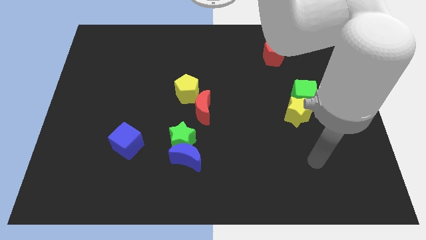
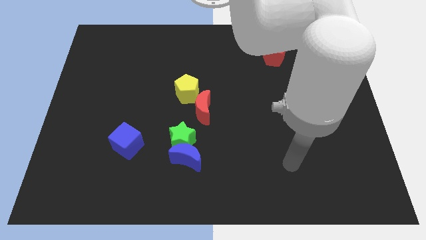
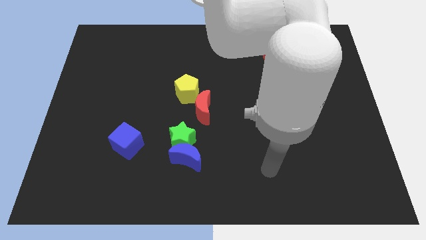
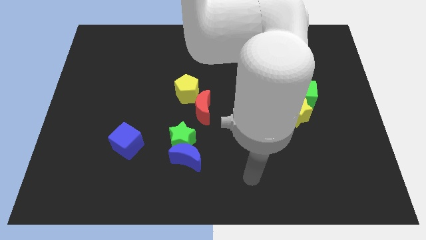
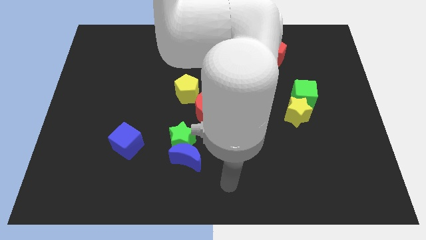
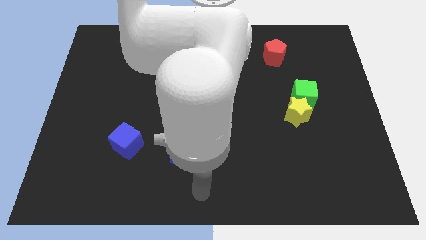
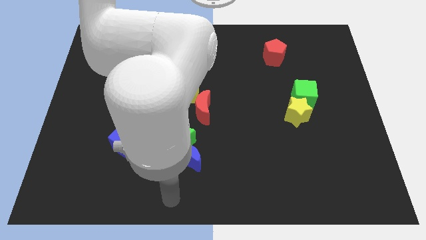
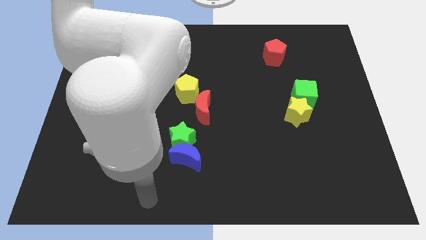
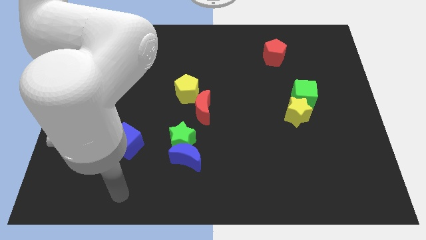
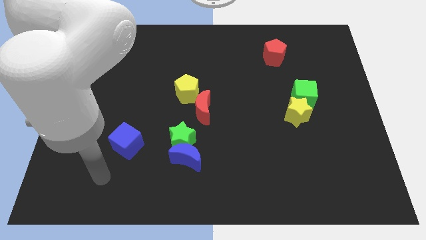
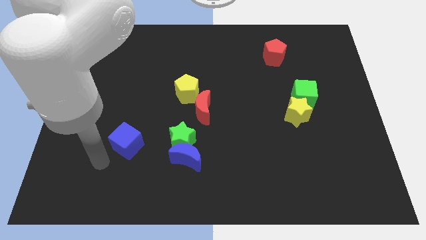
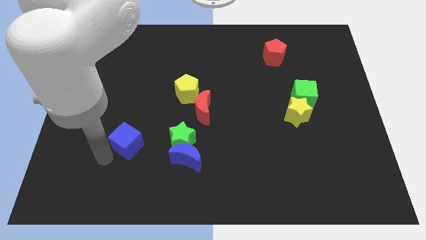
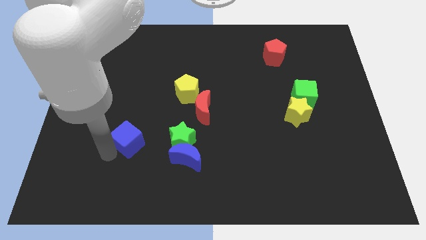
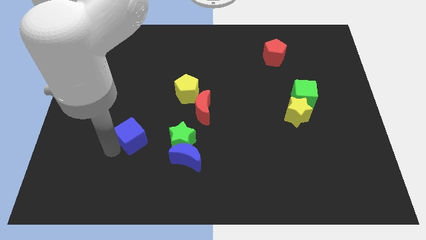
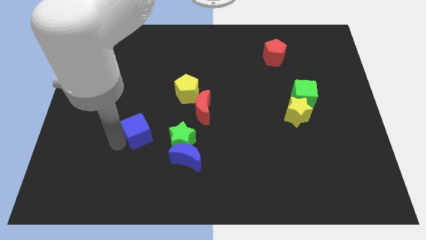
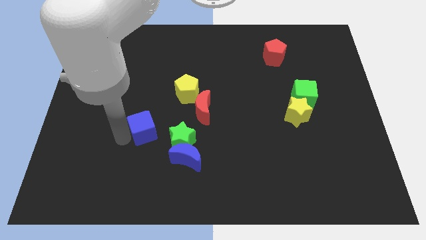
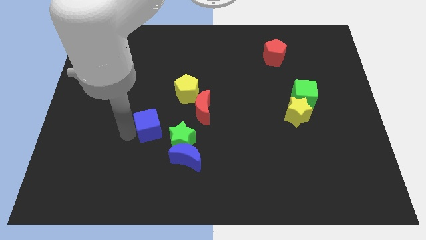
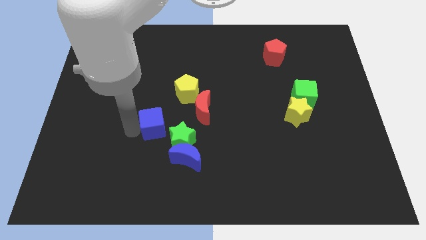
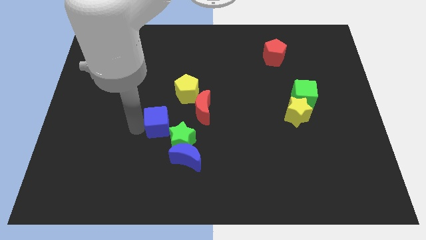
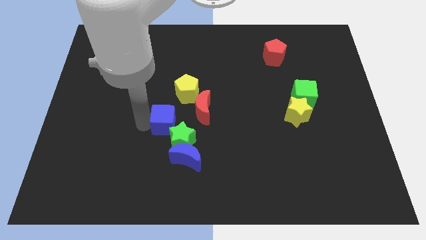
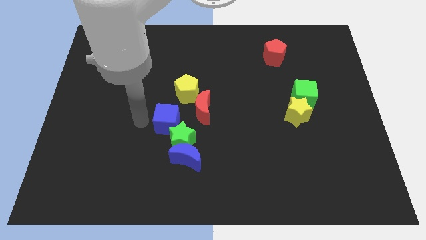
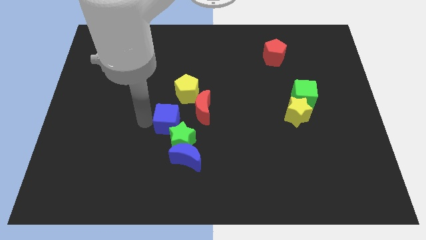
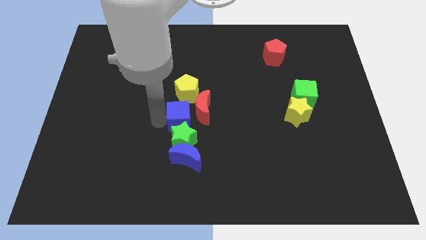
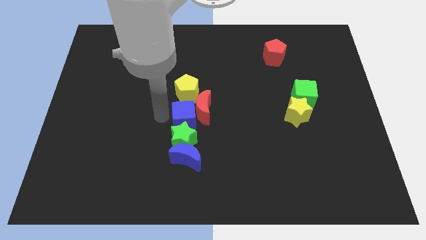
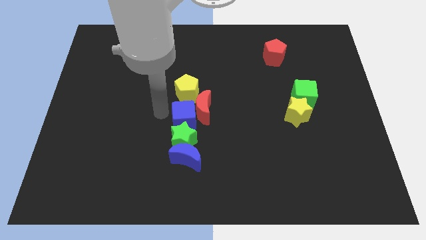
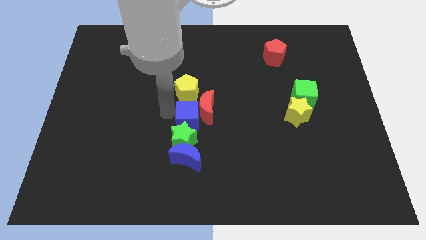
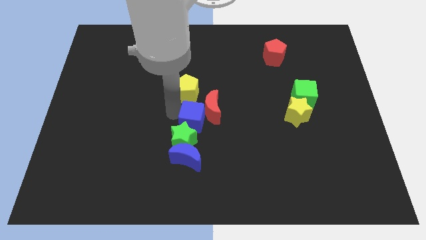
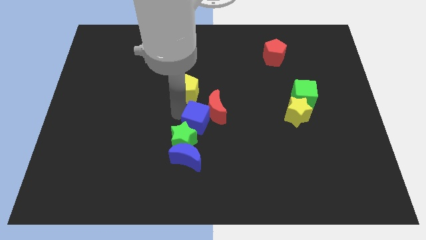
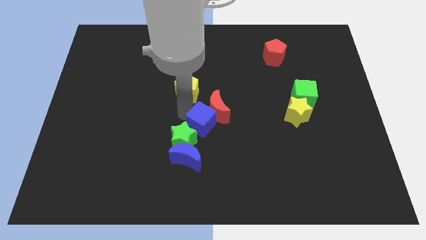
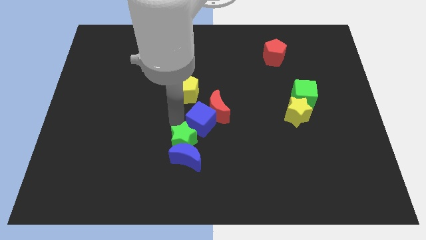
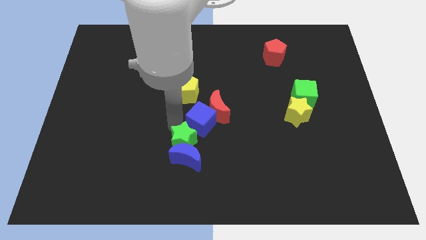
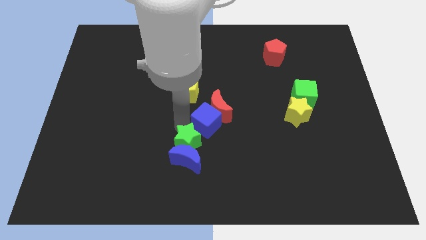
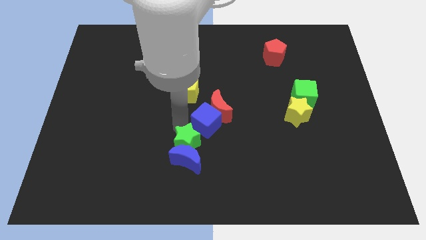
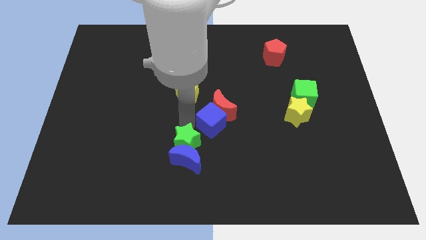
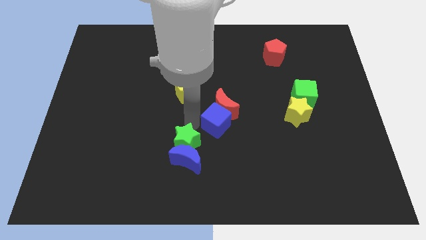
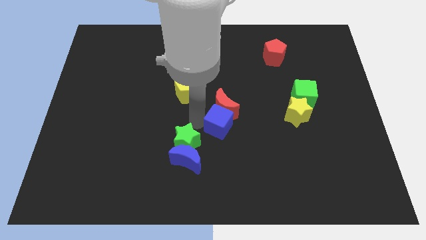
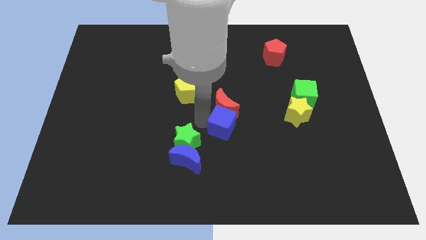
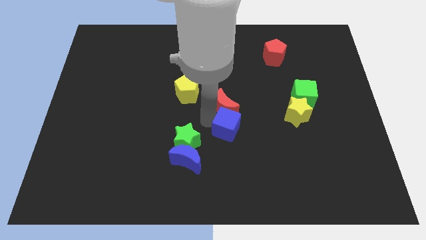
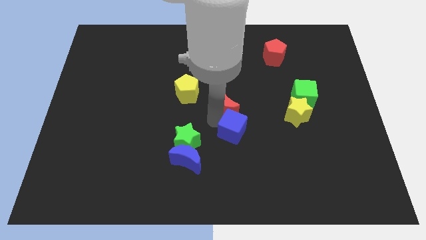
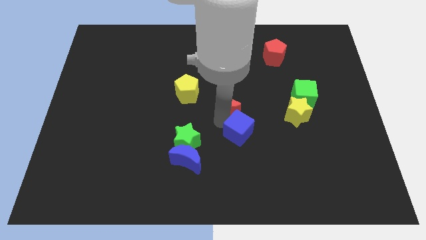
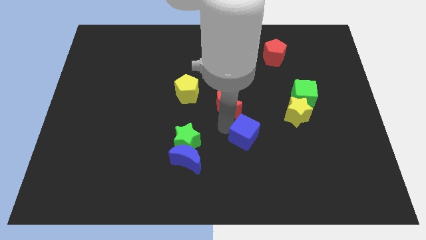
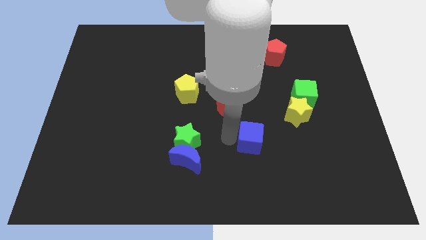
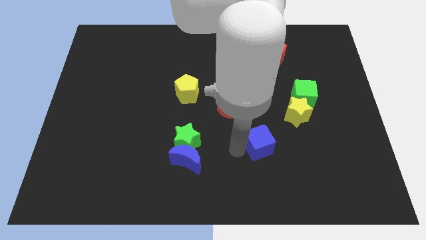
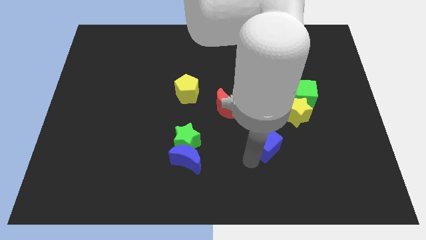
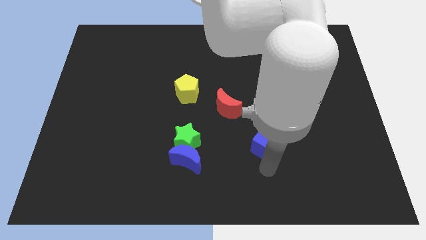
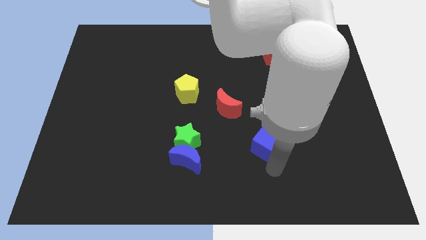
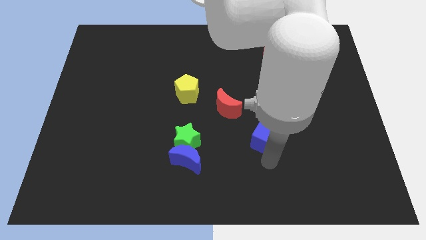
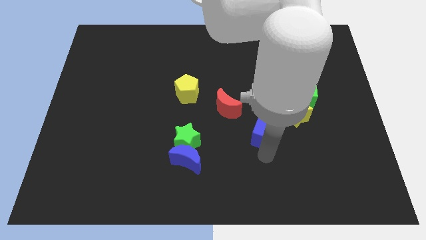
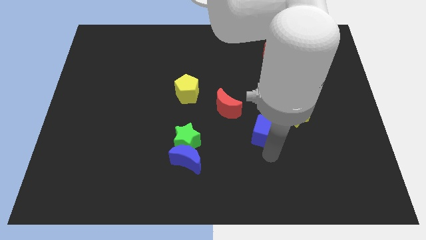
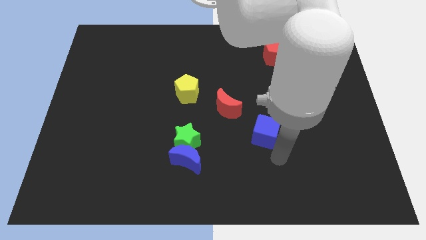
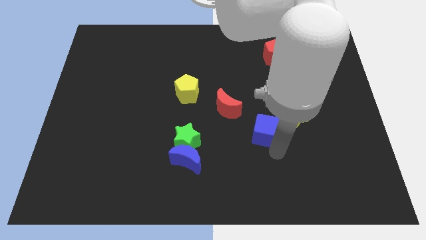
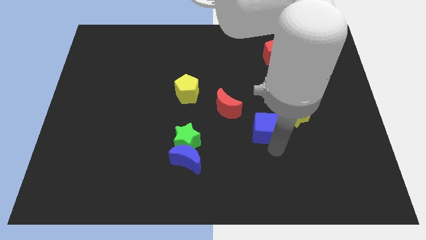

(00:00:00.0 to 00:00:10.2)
slide the blue cube to the left of the yellow star

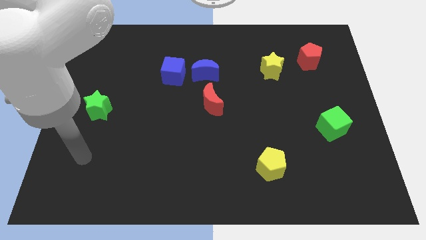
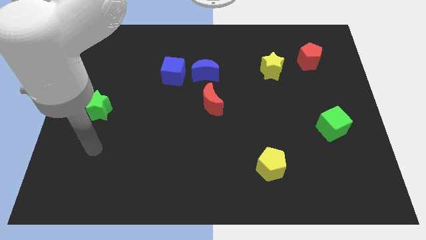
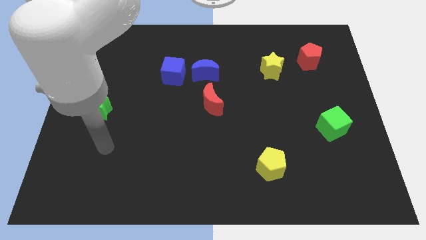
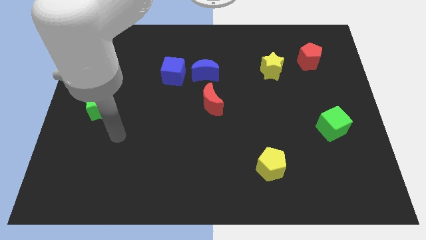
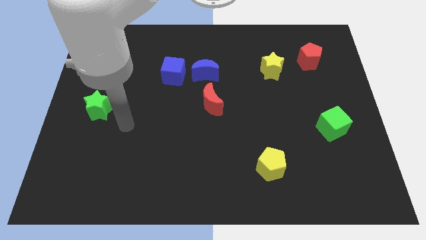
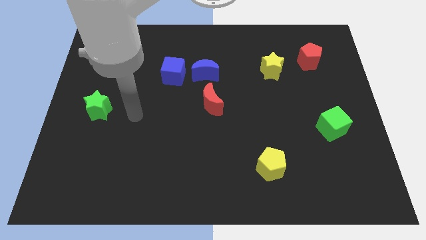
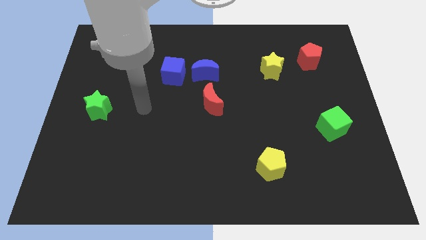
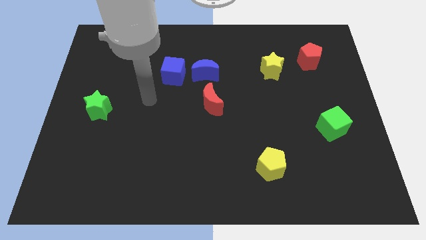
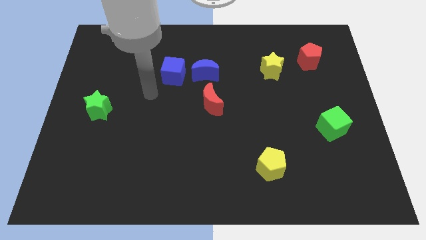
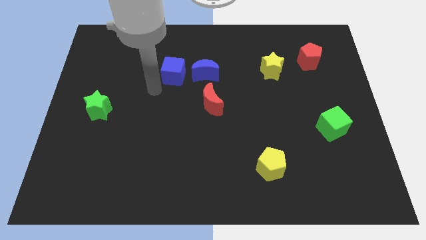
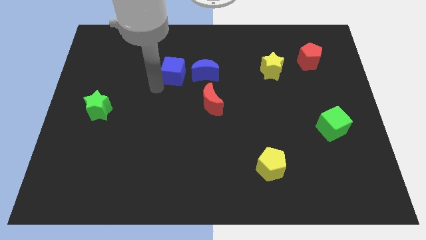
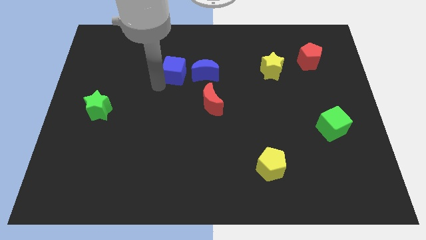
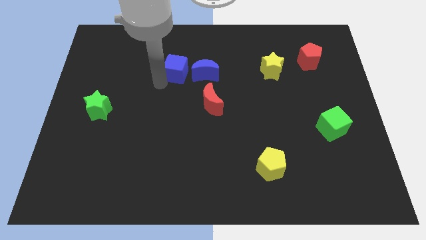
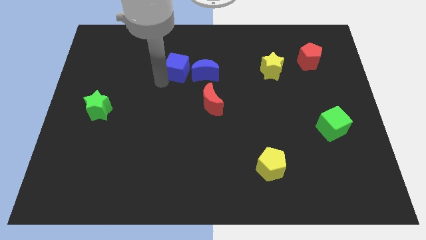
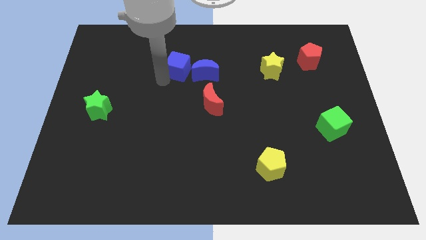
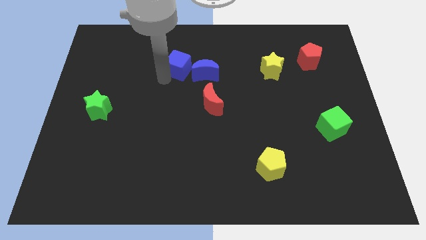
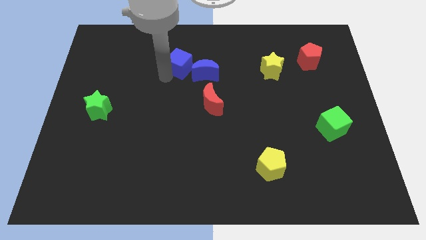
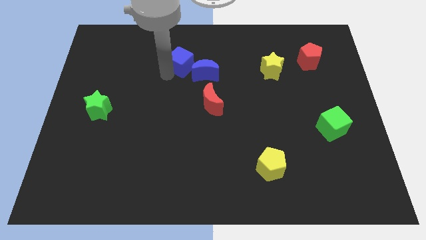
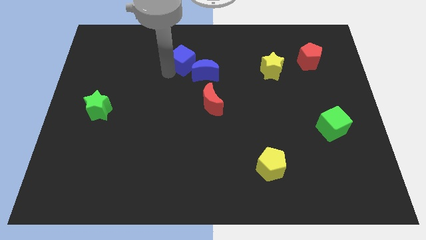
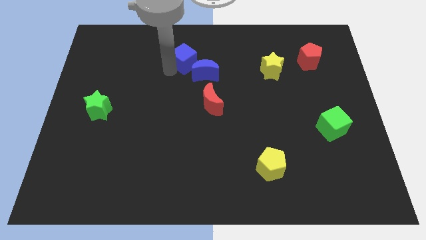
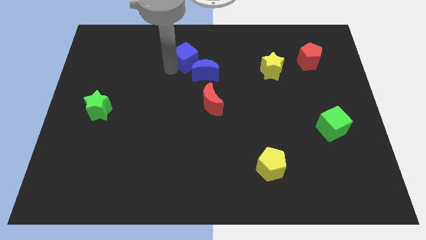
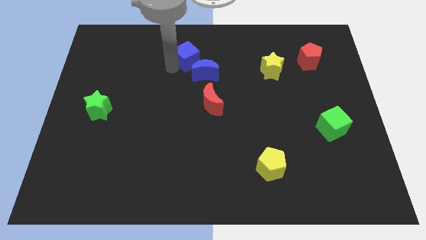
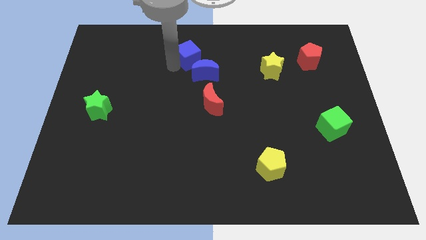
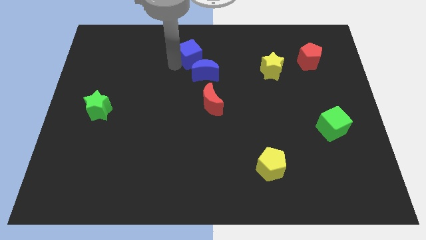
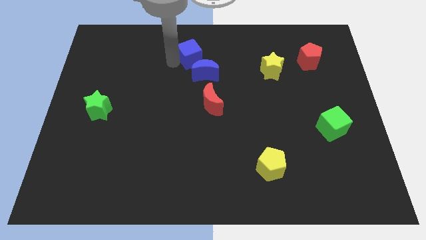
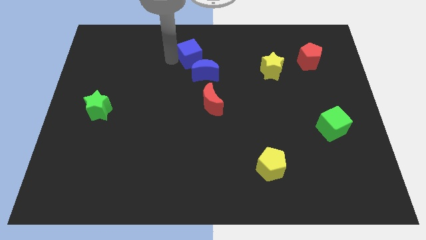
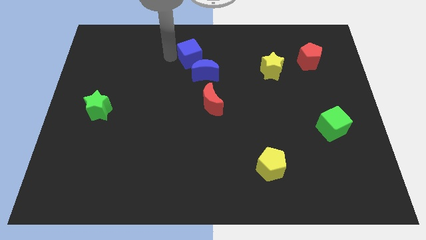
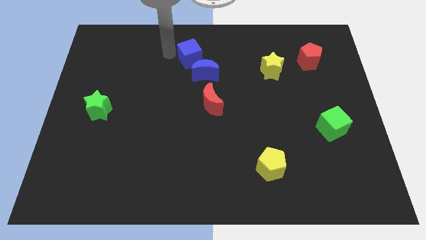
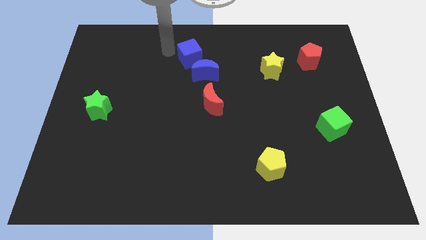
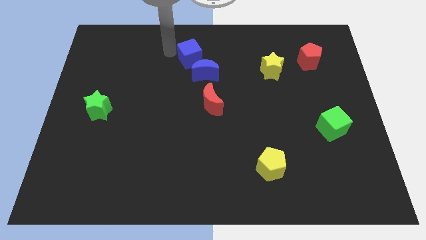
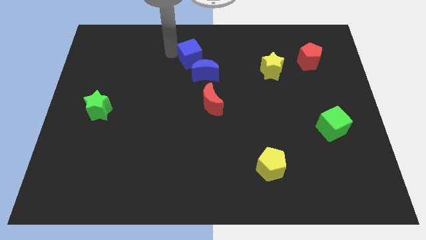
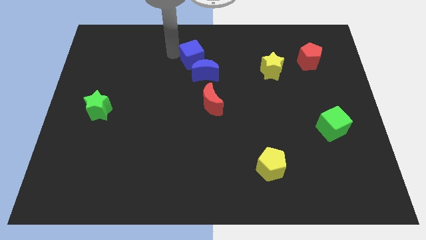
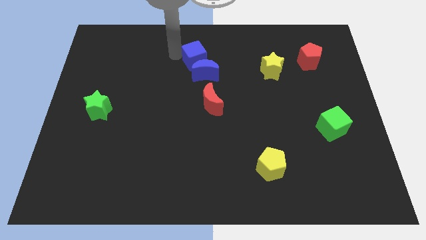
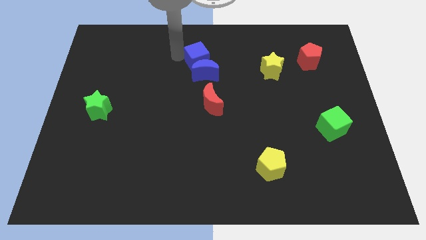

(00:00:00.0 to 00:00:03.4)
put the blue cube to the top side of the red moon
